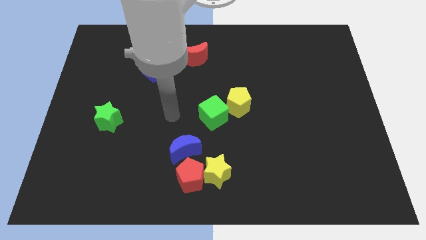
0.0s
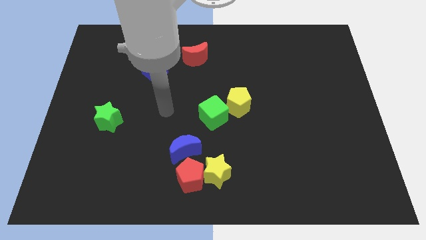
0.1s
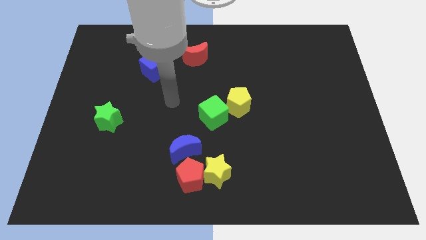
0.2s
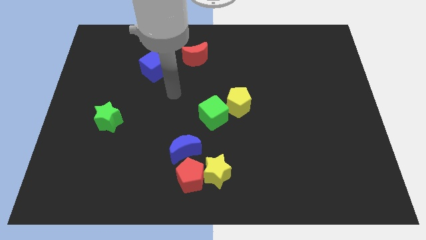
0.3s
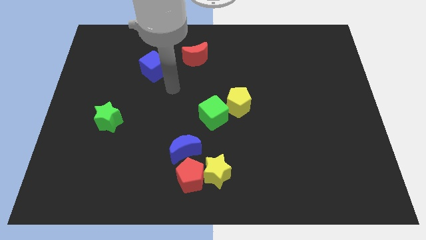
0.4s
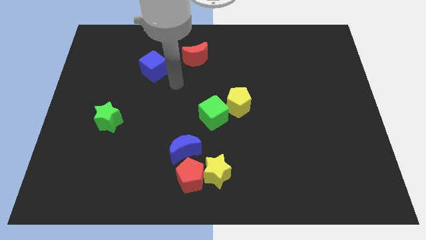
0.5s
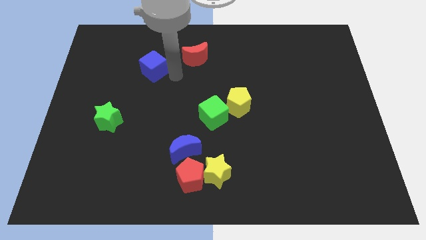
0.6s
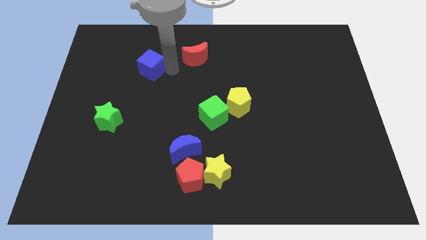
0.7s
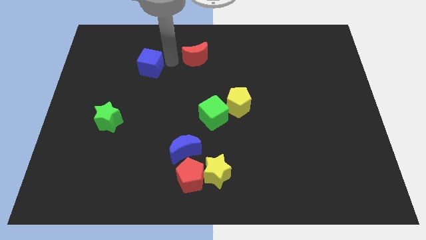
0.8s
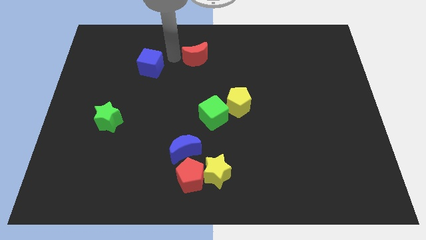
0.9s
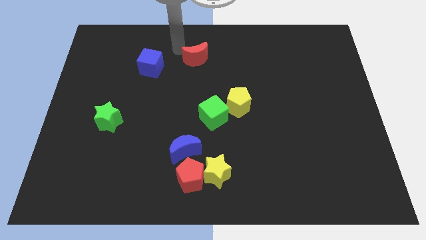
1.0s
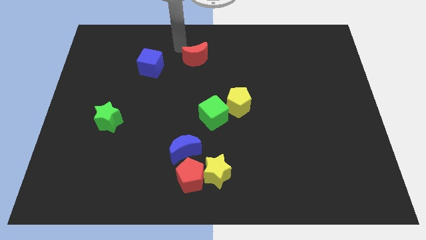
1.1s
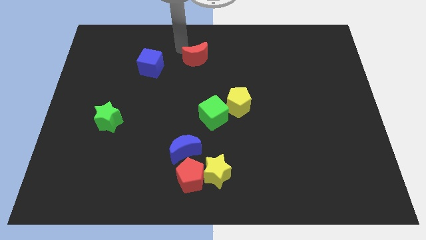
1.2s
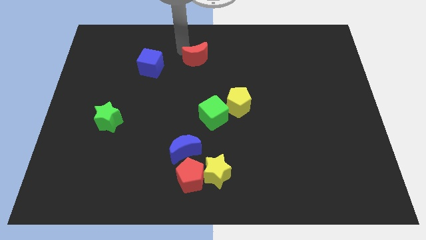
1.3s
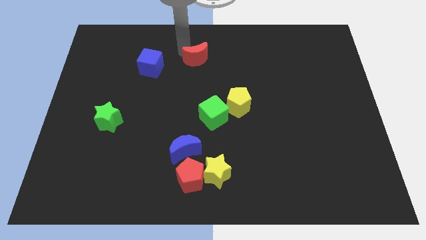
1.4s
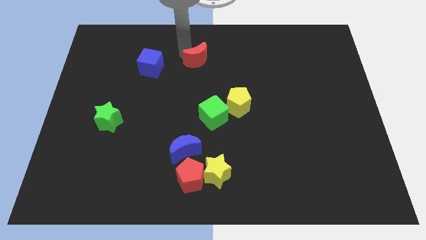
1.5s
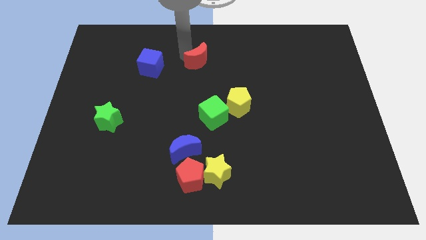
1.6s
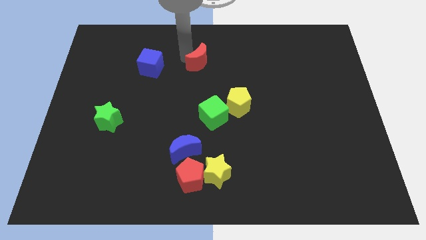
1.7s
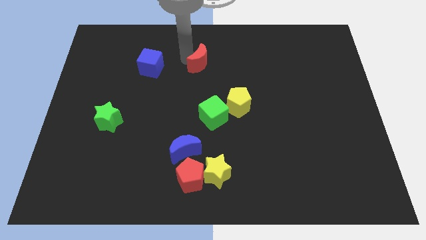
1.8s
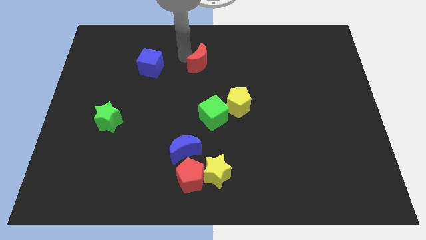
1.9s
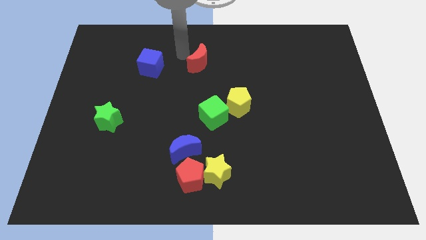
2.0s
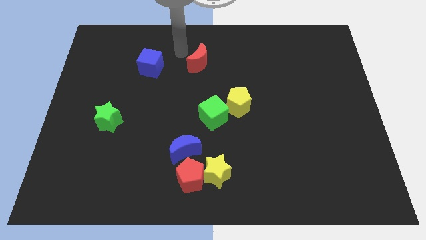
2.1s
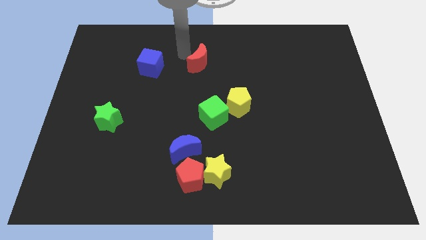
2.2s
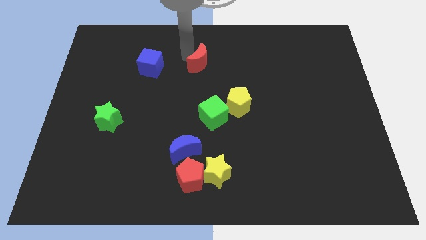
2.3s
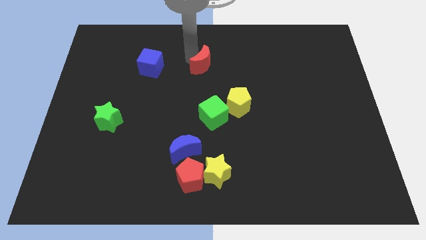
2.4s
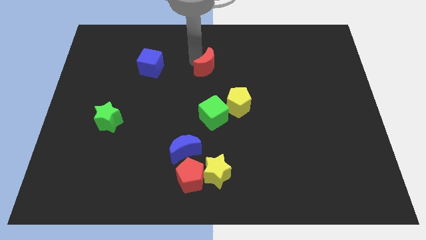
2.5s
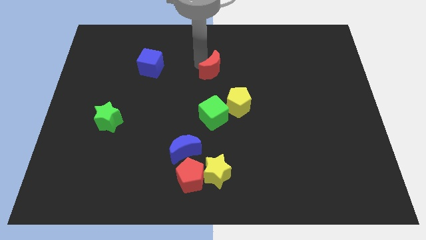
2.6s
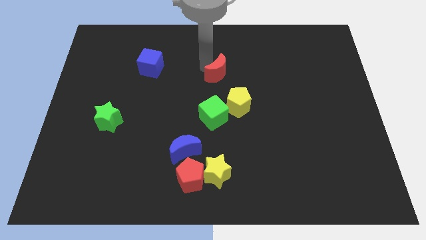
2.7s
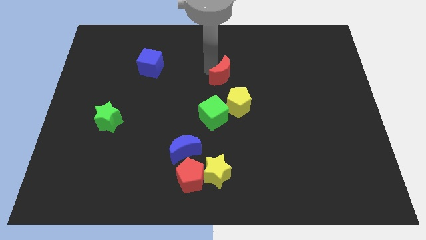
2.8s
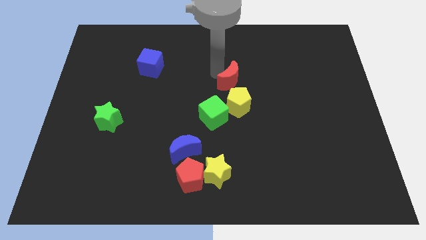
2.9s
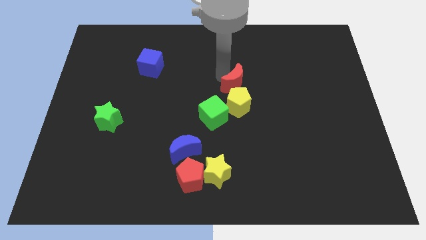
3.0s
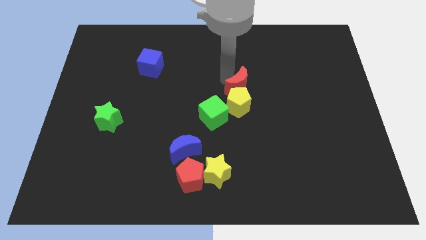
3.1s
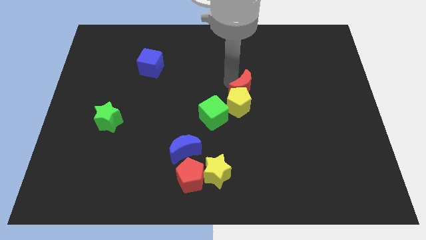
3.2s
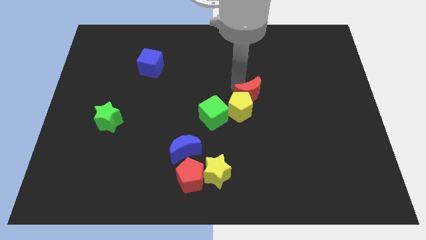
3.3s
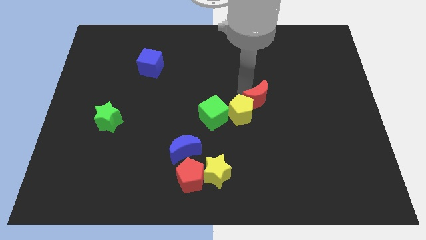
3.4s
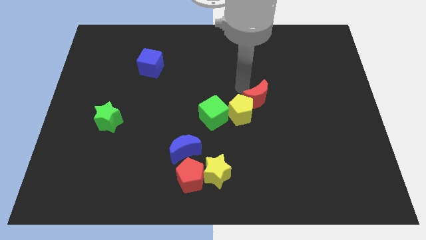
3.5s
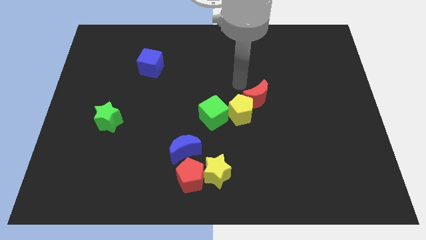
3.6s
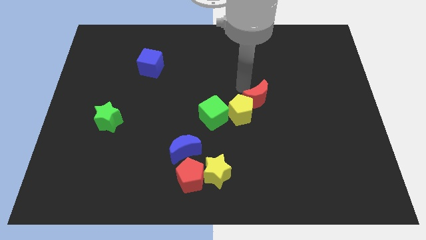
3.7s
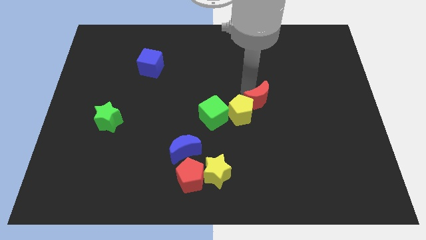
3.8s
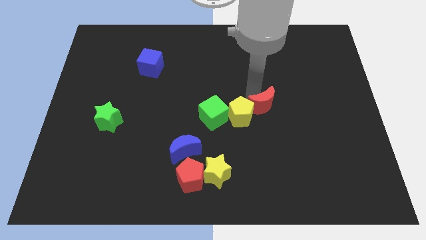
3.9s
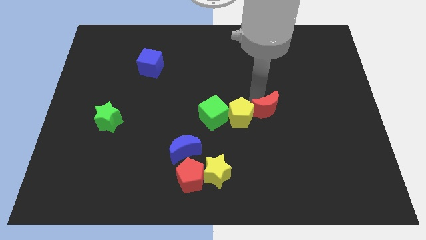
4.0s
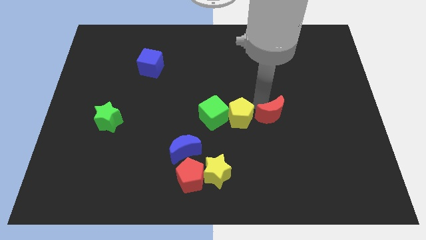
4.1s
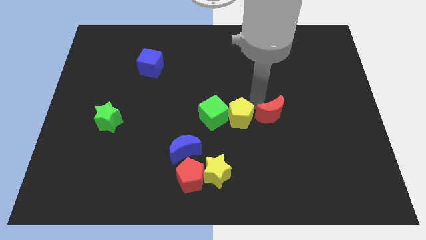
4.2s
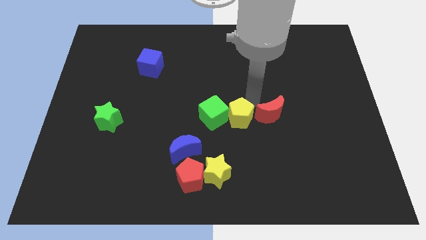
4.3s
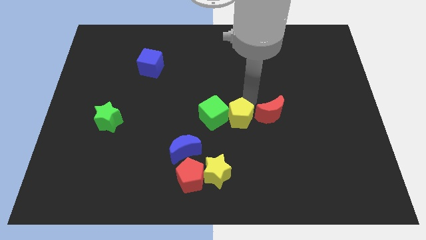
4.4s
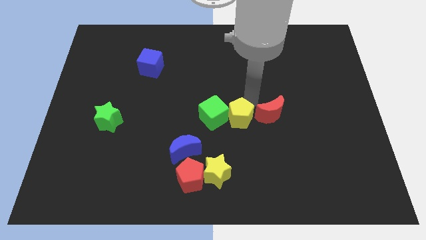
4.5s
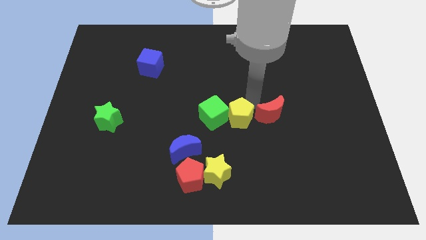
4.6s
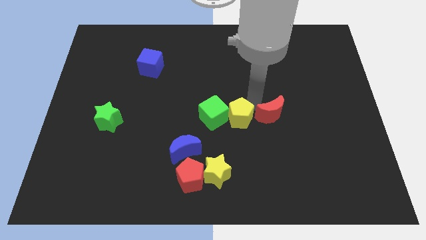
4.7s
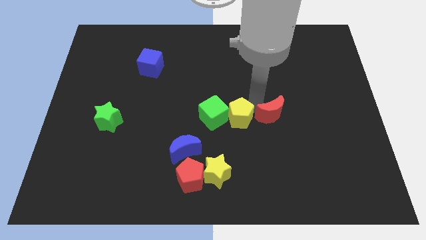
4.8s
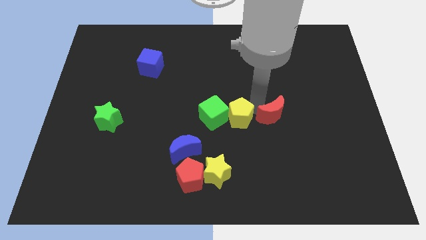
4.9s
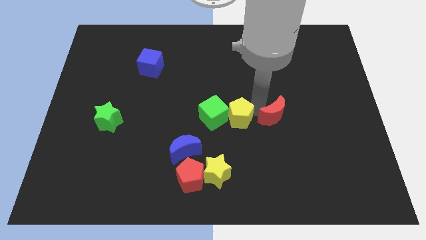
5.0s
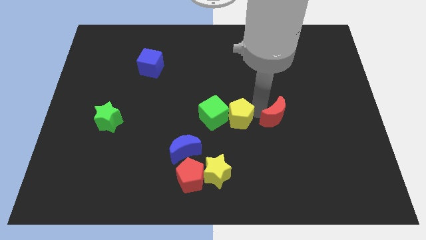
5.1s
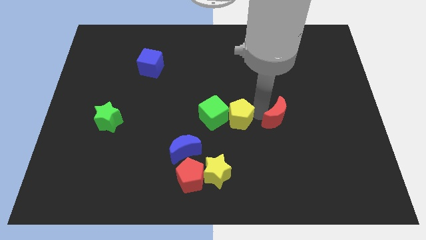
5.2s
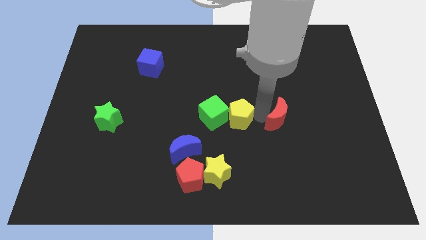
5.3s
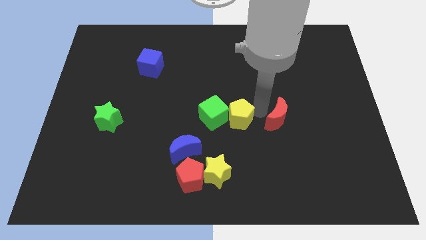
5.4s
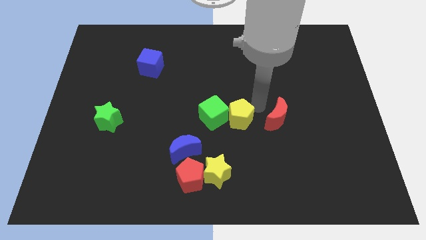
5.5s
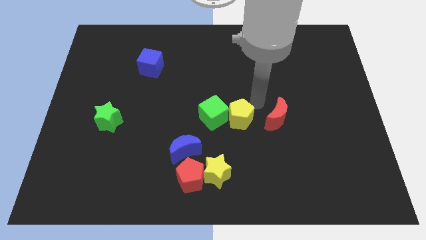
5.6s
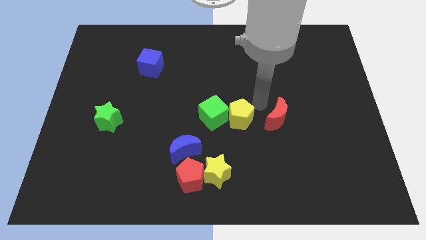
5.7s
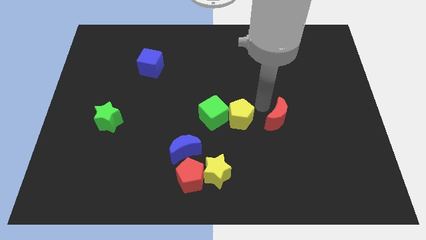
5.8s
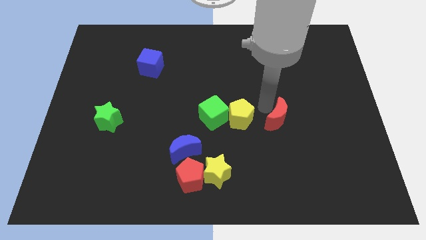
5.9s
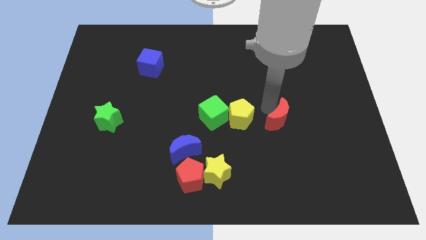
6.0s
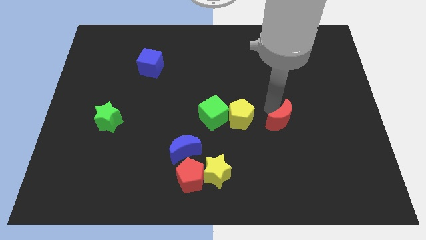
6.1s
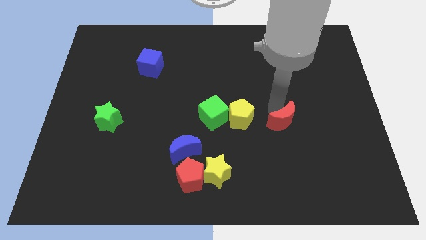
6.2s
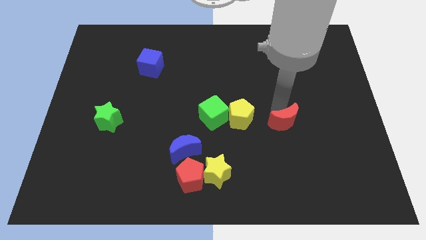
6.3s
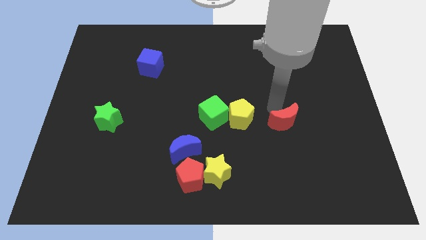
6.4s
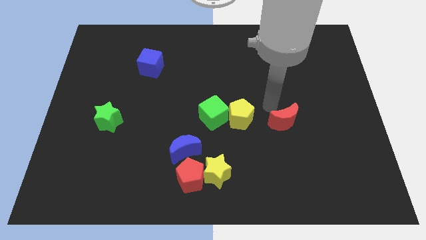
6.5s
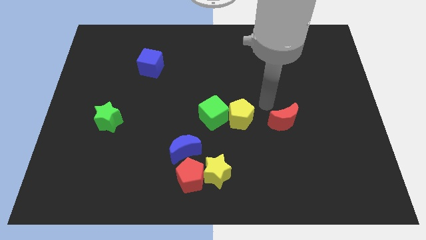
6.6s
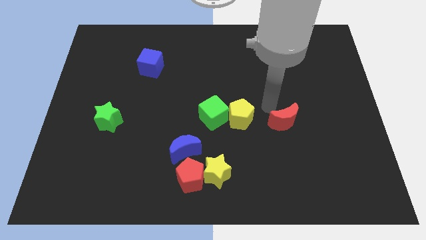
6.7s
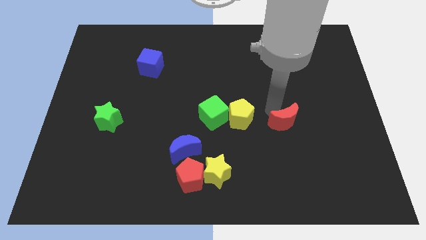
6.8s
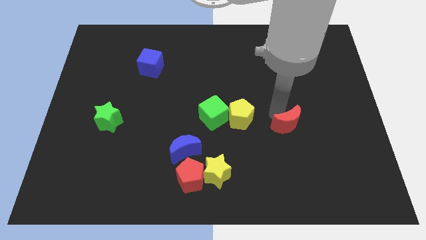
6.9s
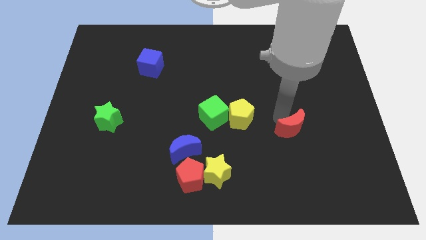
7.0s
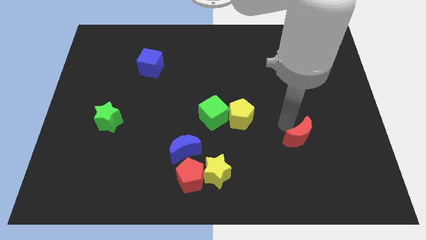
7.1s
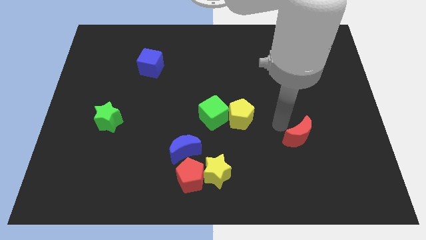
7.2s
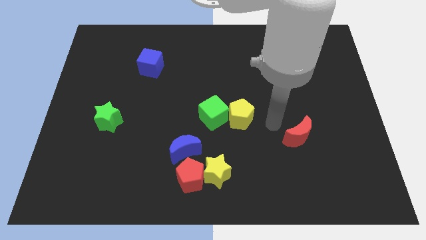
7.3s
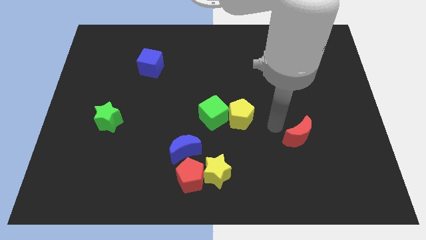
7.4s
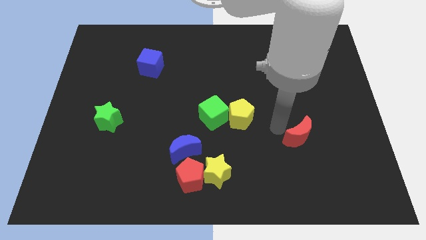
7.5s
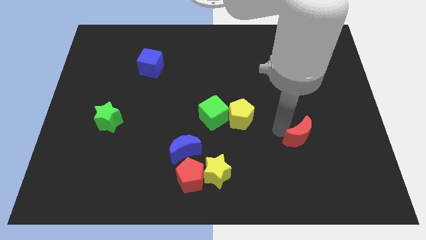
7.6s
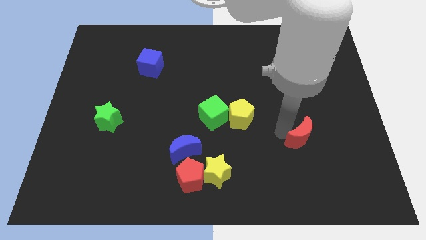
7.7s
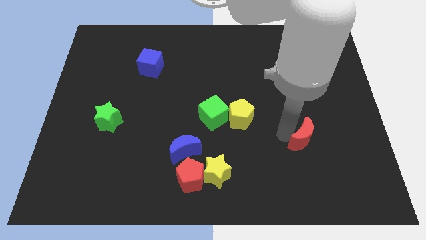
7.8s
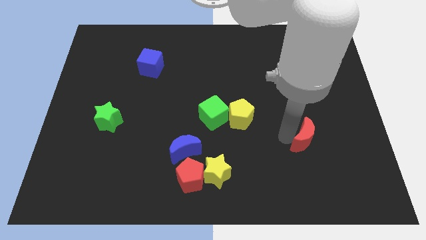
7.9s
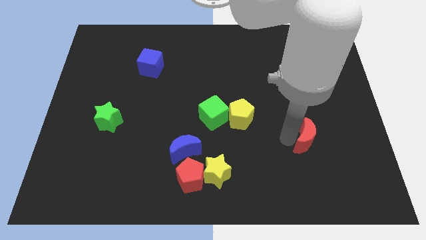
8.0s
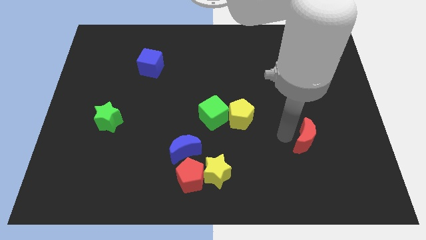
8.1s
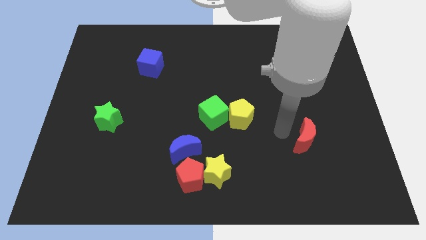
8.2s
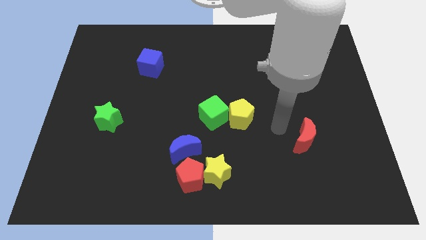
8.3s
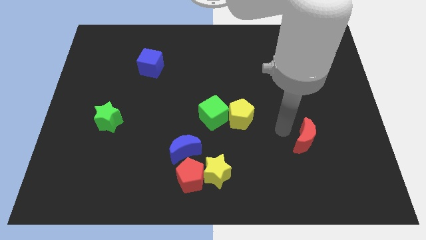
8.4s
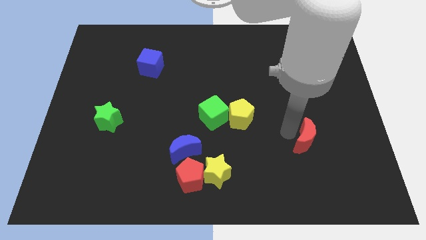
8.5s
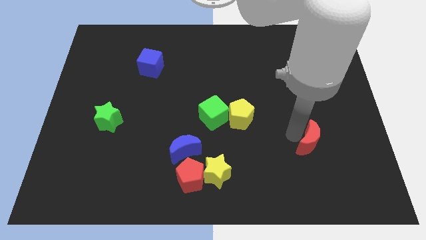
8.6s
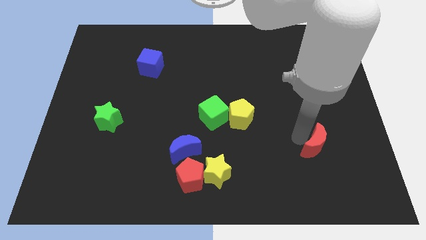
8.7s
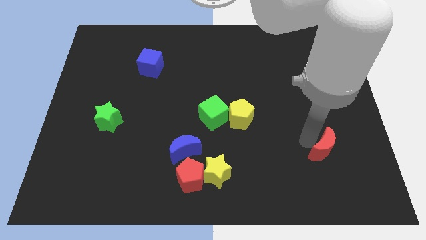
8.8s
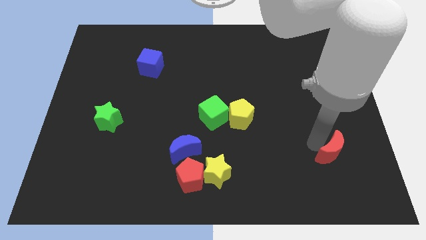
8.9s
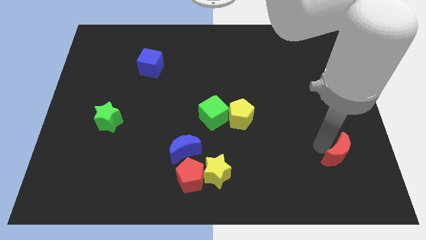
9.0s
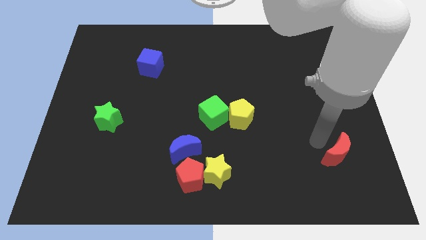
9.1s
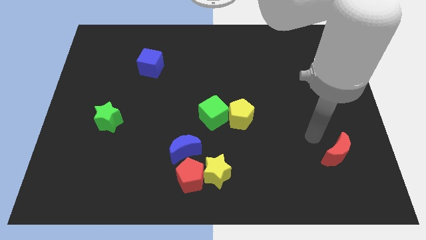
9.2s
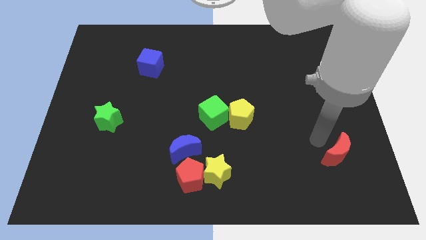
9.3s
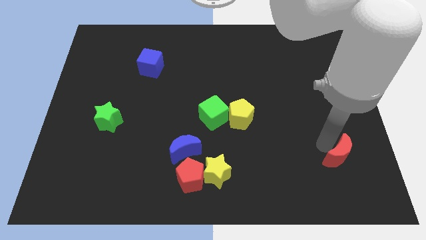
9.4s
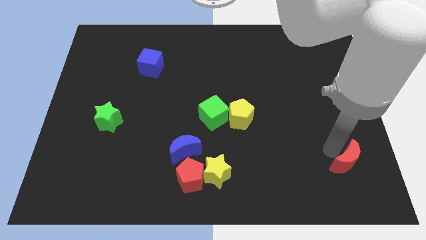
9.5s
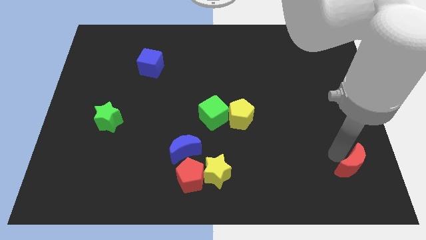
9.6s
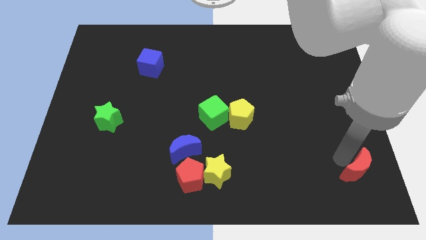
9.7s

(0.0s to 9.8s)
slide the red moon to the bottom right of the board
